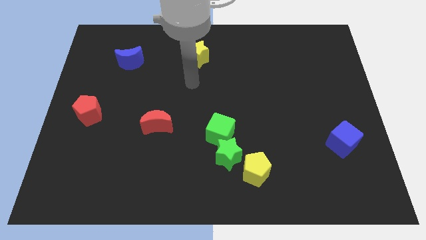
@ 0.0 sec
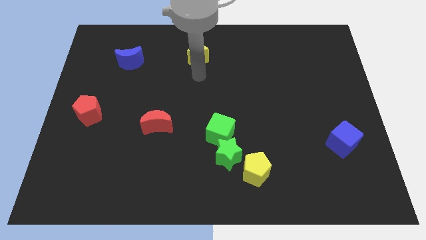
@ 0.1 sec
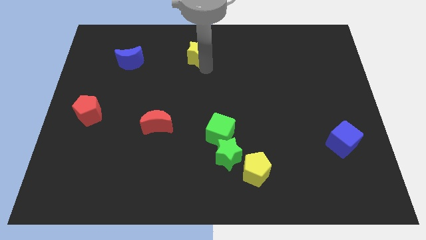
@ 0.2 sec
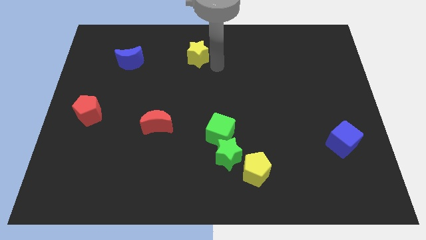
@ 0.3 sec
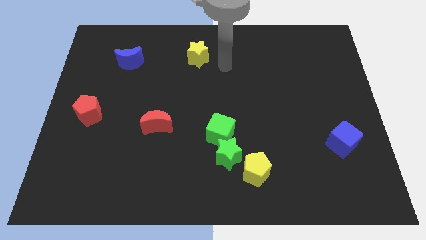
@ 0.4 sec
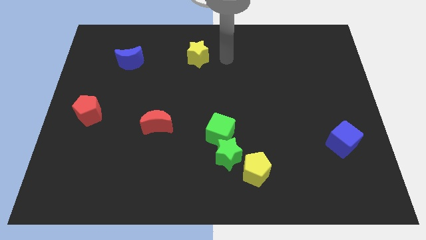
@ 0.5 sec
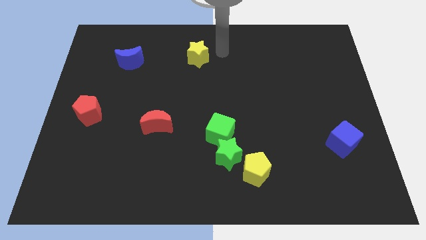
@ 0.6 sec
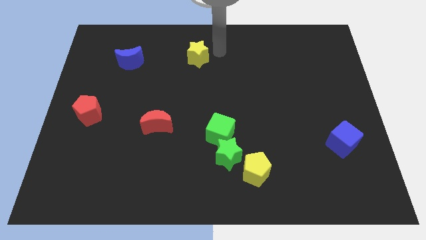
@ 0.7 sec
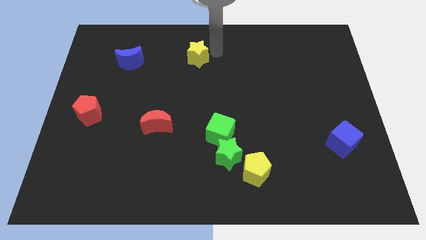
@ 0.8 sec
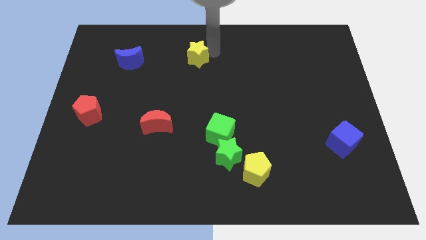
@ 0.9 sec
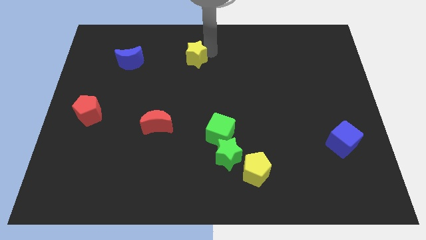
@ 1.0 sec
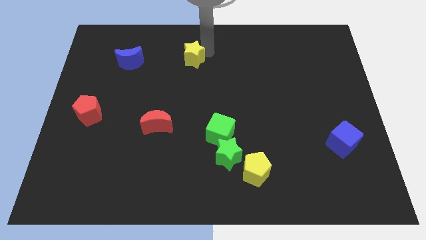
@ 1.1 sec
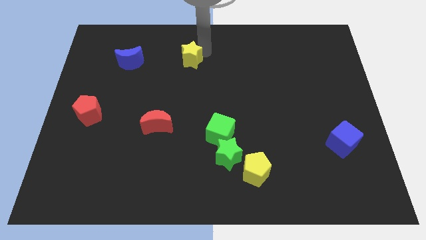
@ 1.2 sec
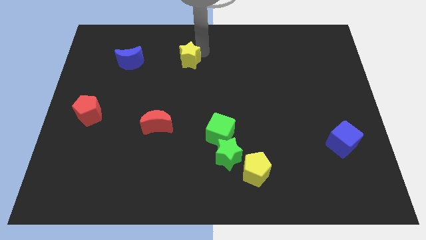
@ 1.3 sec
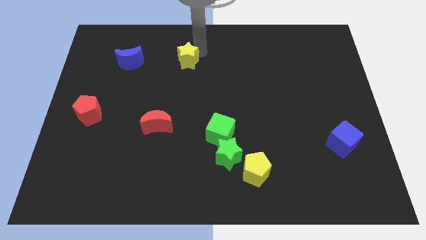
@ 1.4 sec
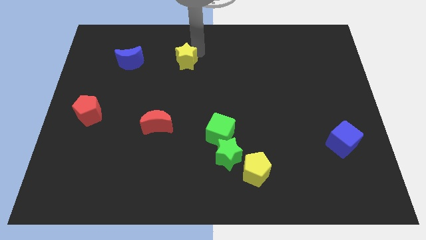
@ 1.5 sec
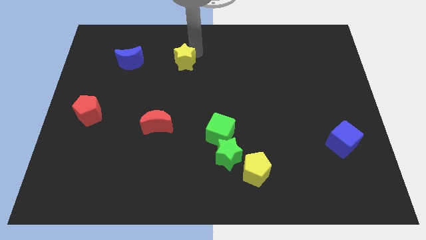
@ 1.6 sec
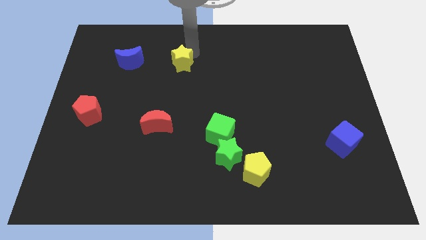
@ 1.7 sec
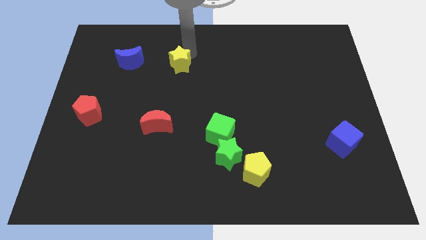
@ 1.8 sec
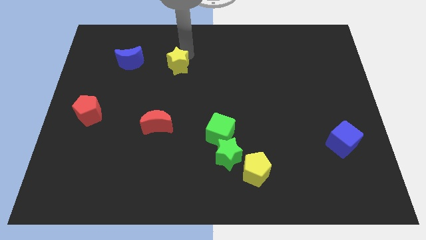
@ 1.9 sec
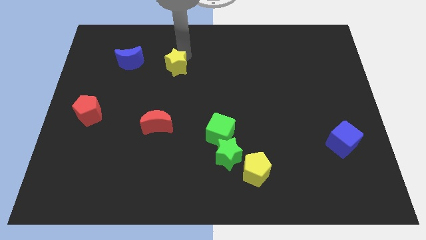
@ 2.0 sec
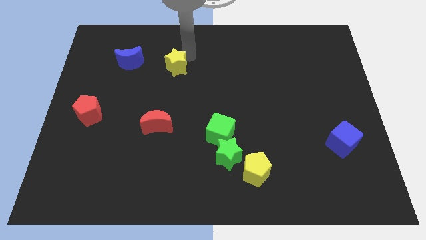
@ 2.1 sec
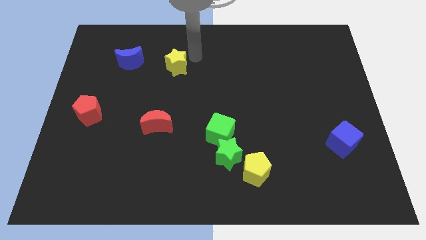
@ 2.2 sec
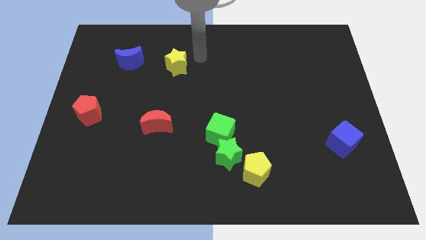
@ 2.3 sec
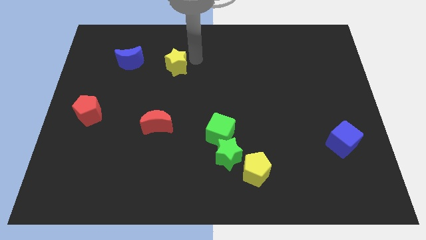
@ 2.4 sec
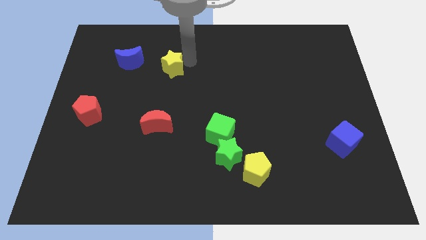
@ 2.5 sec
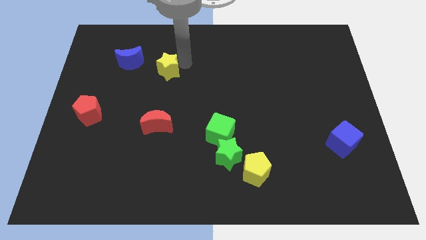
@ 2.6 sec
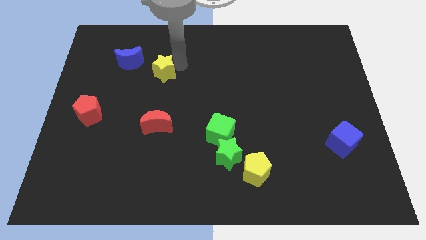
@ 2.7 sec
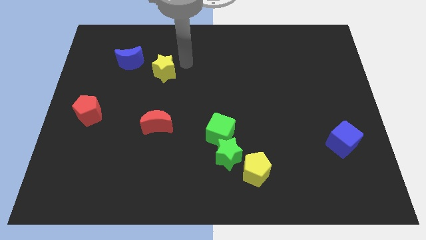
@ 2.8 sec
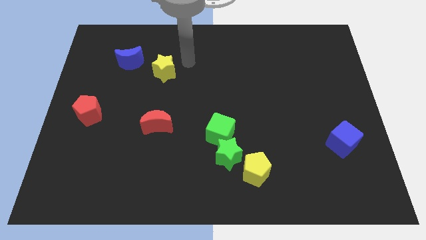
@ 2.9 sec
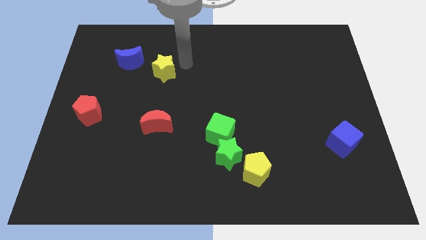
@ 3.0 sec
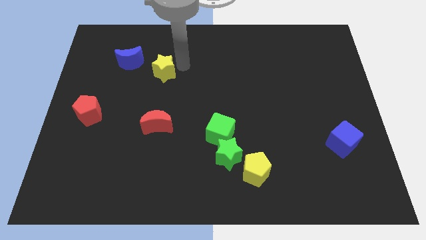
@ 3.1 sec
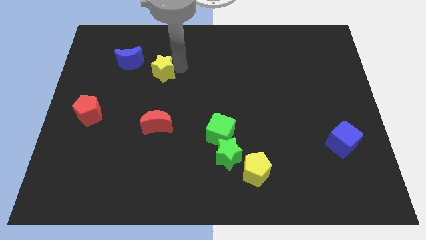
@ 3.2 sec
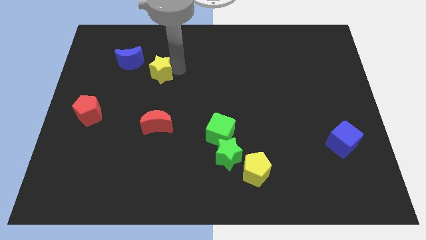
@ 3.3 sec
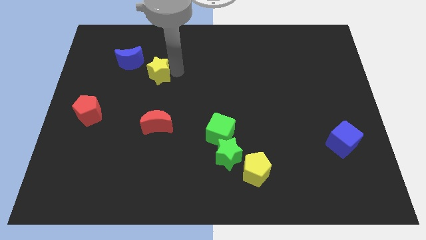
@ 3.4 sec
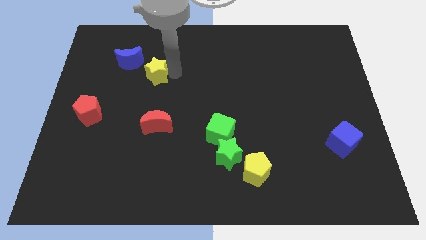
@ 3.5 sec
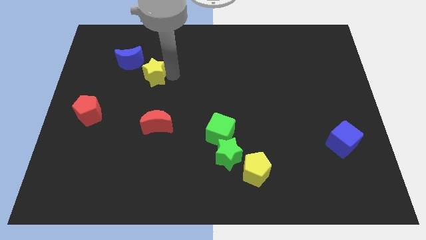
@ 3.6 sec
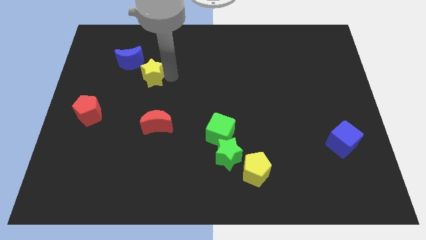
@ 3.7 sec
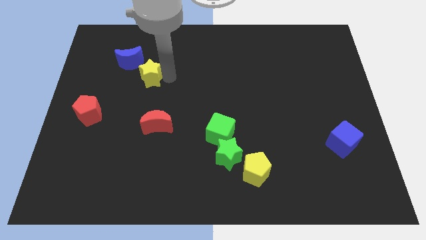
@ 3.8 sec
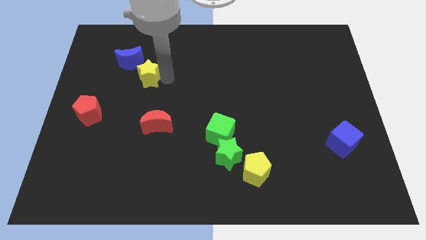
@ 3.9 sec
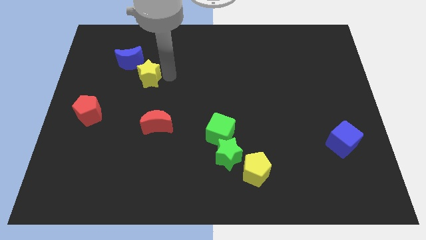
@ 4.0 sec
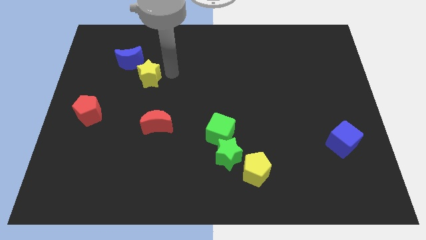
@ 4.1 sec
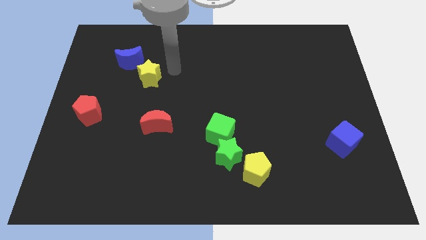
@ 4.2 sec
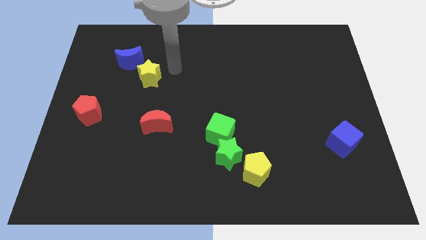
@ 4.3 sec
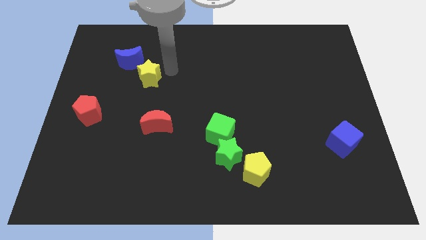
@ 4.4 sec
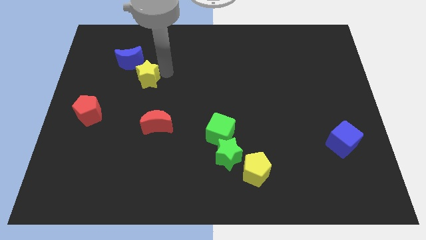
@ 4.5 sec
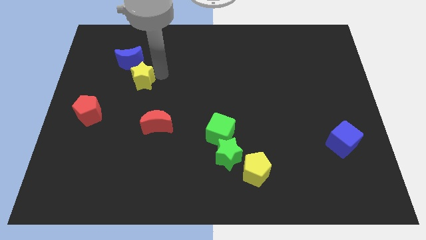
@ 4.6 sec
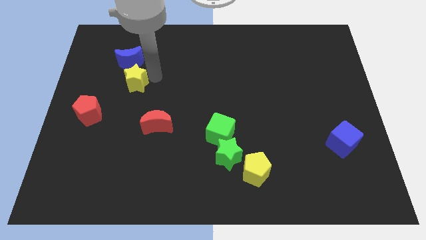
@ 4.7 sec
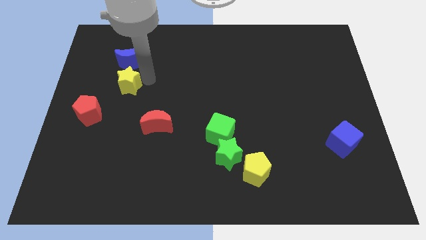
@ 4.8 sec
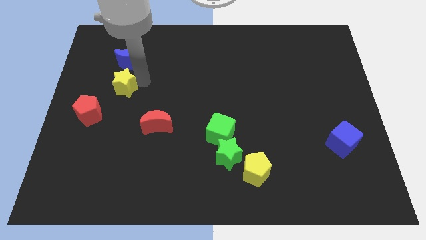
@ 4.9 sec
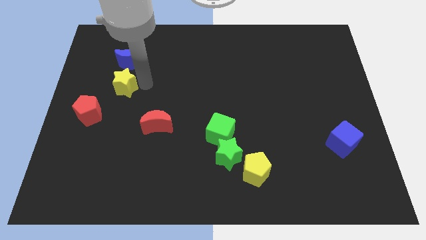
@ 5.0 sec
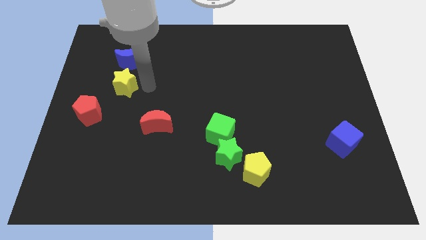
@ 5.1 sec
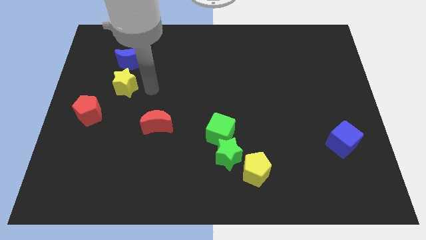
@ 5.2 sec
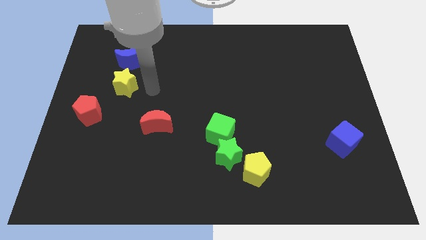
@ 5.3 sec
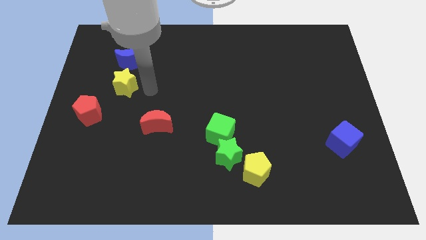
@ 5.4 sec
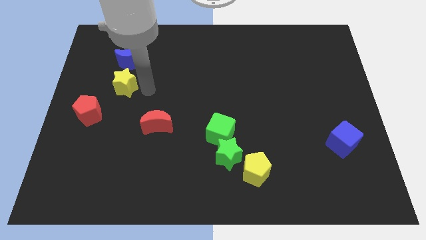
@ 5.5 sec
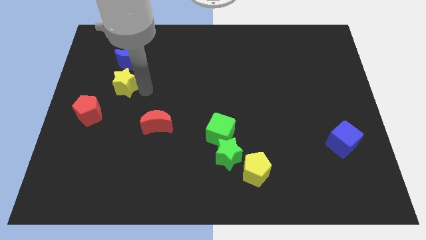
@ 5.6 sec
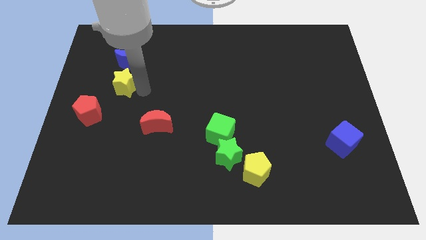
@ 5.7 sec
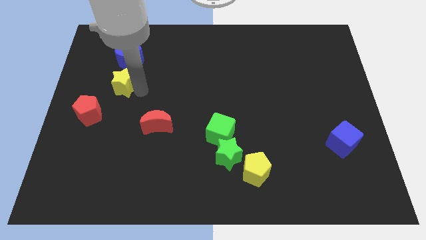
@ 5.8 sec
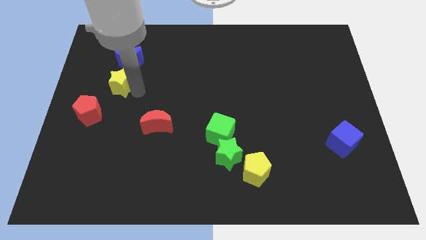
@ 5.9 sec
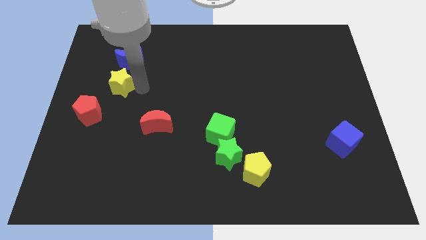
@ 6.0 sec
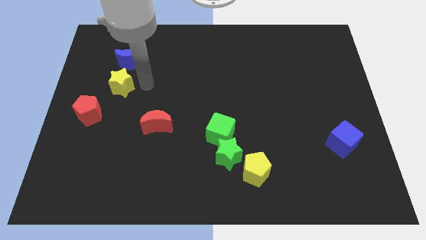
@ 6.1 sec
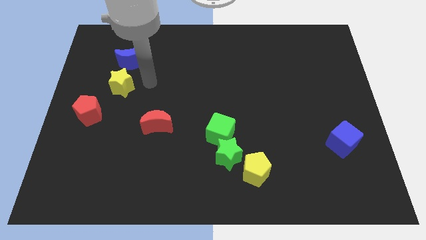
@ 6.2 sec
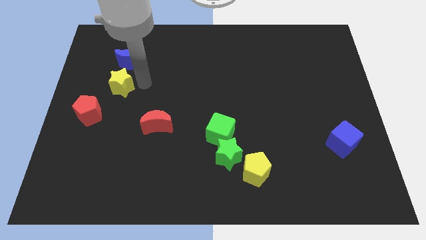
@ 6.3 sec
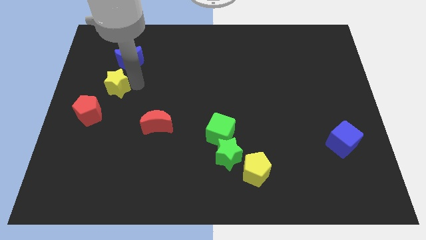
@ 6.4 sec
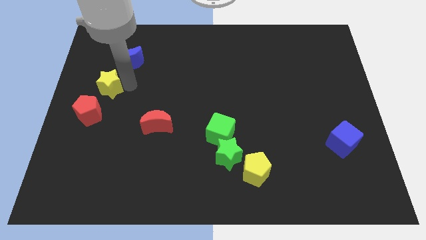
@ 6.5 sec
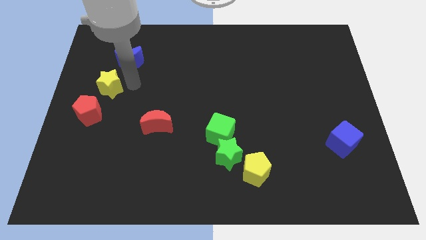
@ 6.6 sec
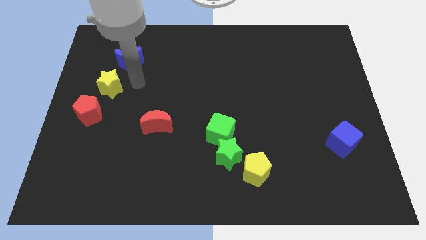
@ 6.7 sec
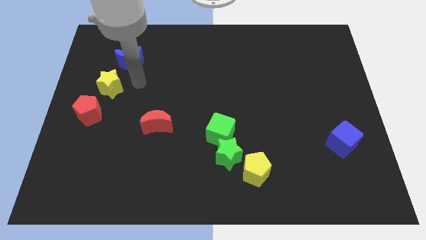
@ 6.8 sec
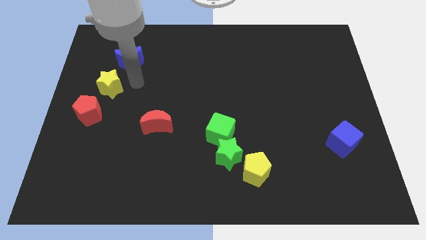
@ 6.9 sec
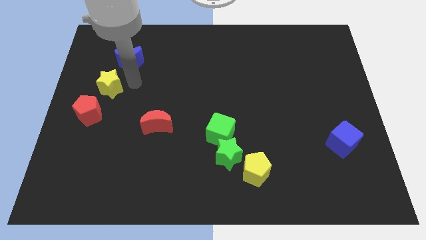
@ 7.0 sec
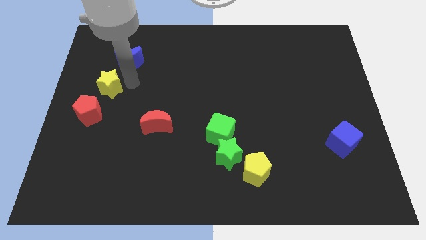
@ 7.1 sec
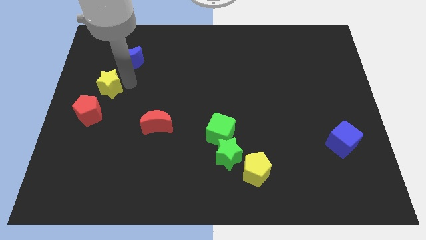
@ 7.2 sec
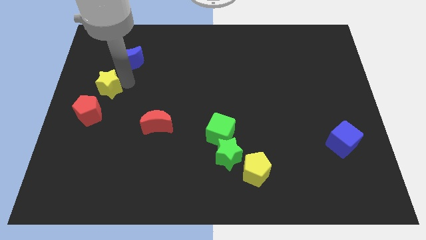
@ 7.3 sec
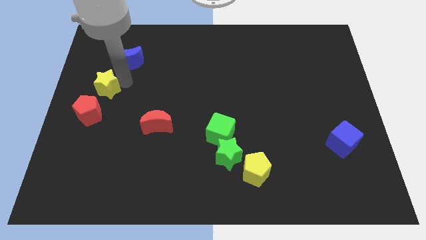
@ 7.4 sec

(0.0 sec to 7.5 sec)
slide the yellow star to the left side of the board
